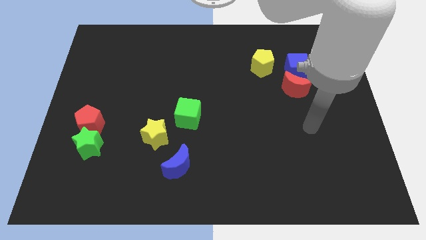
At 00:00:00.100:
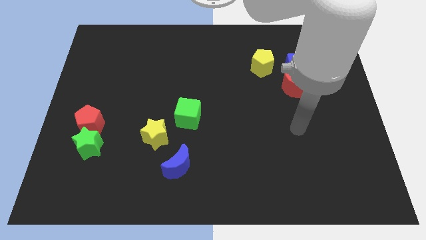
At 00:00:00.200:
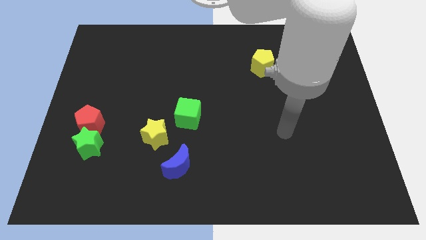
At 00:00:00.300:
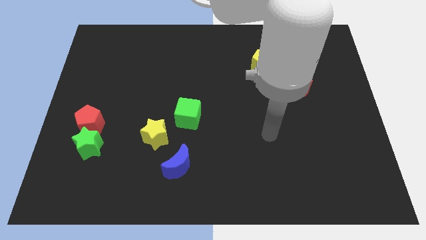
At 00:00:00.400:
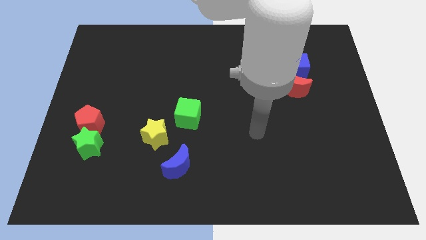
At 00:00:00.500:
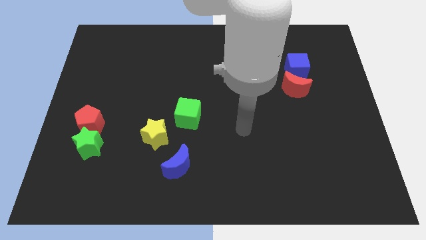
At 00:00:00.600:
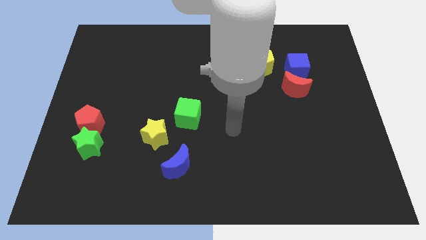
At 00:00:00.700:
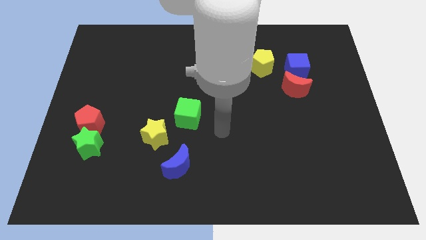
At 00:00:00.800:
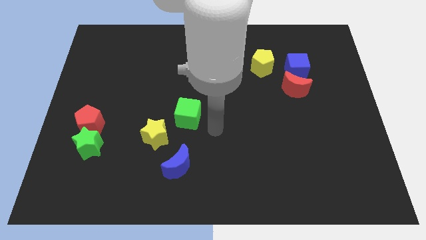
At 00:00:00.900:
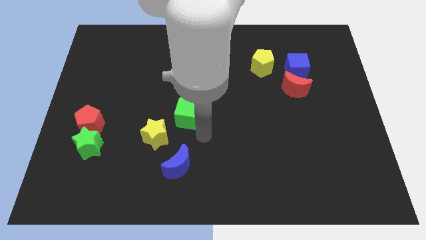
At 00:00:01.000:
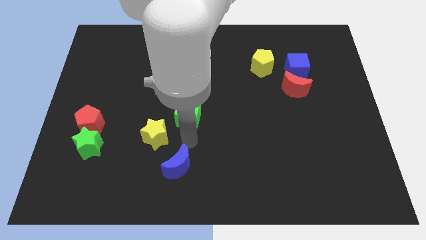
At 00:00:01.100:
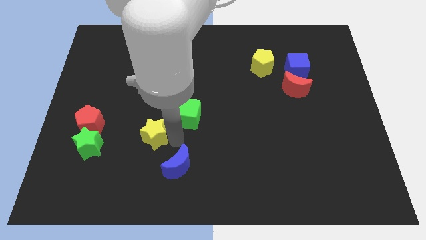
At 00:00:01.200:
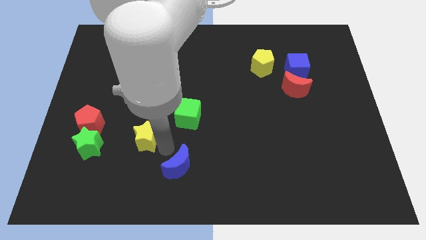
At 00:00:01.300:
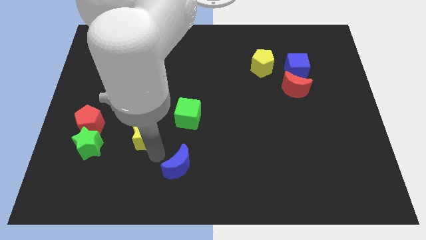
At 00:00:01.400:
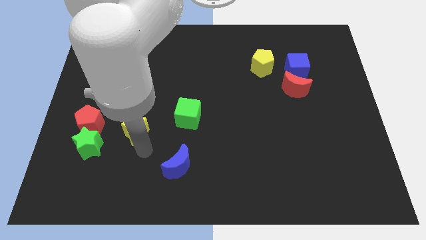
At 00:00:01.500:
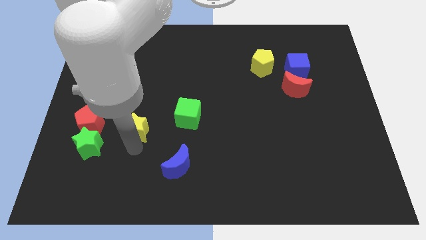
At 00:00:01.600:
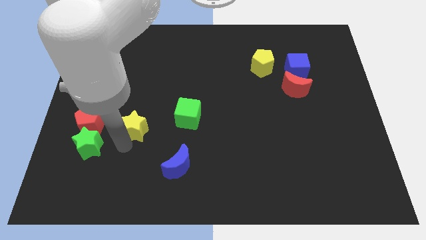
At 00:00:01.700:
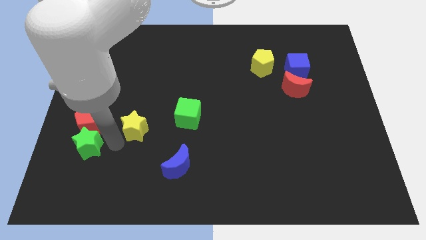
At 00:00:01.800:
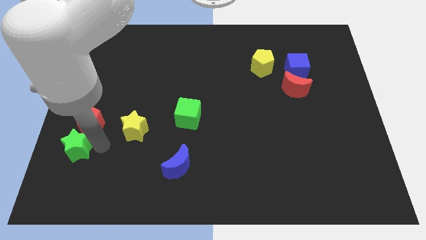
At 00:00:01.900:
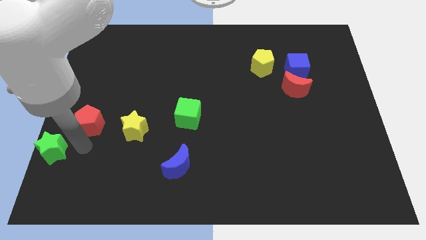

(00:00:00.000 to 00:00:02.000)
separate the red pentagon from the green star

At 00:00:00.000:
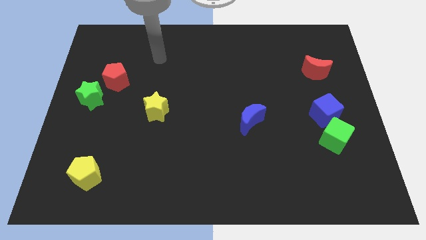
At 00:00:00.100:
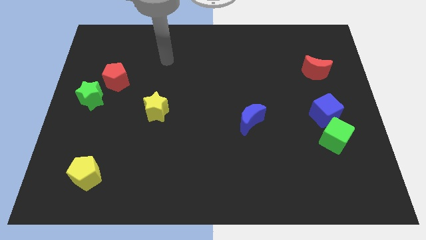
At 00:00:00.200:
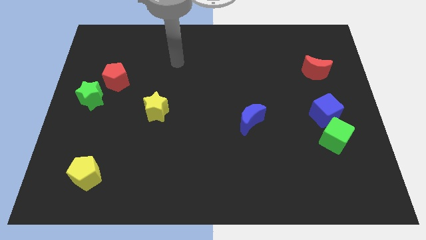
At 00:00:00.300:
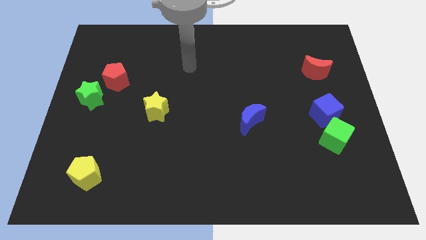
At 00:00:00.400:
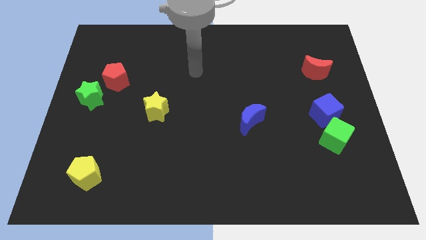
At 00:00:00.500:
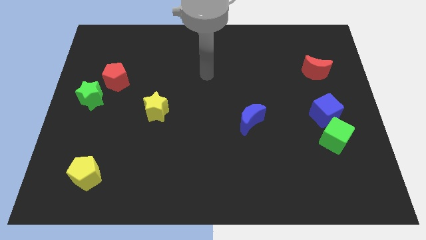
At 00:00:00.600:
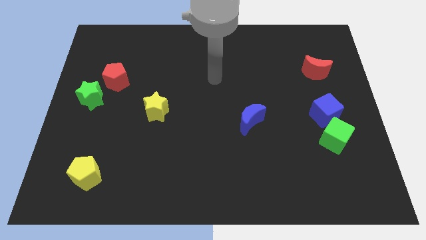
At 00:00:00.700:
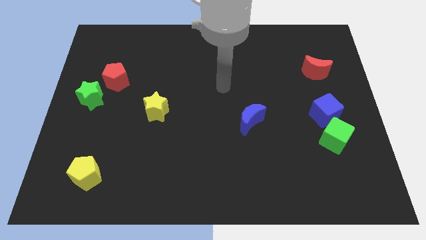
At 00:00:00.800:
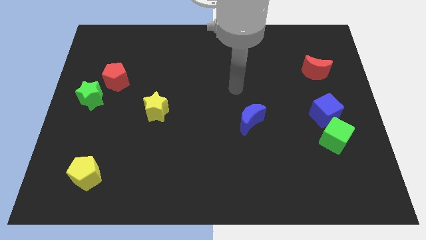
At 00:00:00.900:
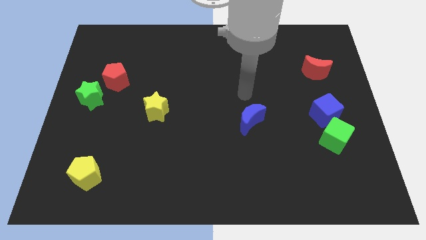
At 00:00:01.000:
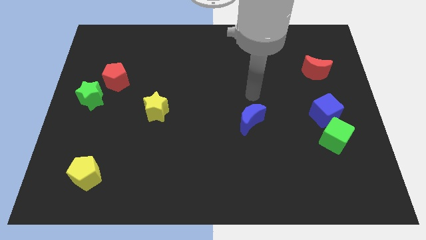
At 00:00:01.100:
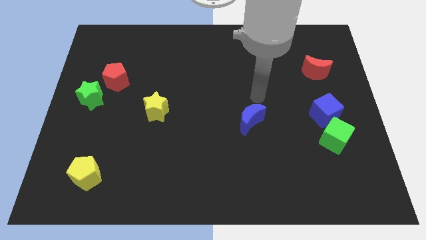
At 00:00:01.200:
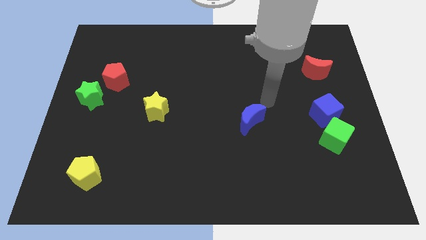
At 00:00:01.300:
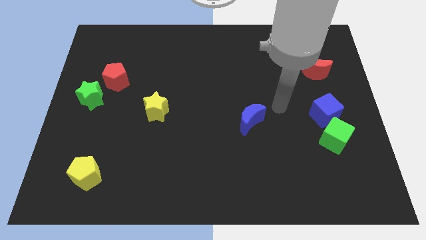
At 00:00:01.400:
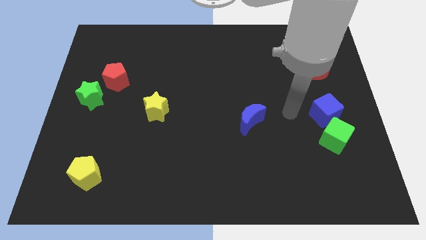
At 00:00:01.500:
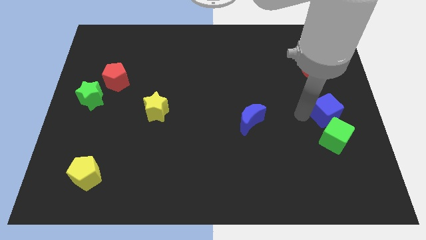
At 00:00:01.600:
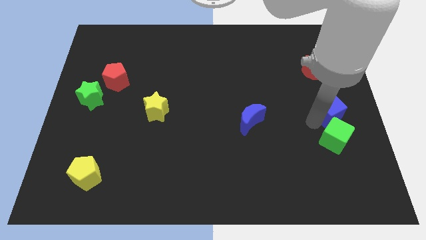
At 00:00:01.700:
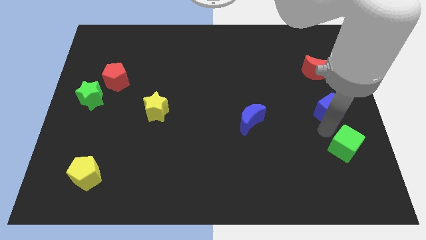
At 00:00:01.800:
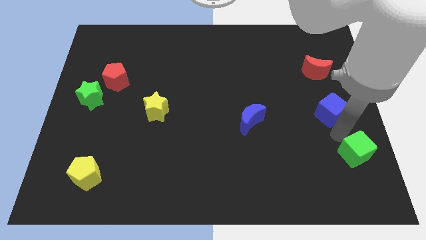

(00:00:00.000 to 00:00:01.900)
pull the blue cube apart from the green cube

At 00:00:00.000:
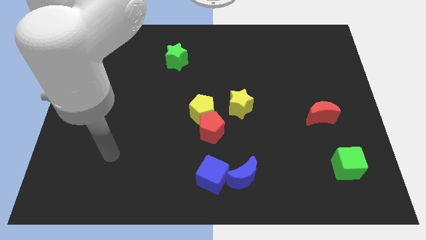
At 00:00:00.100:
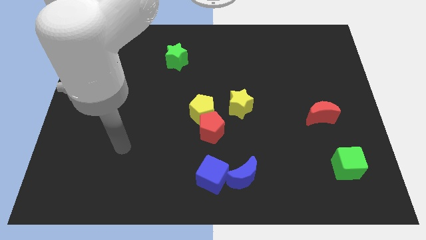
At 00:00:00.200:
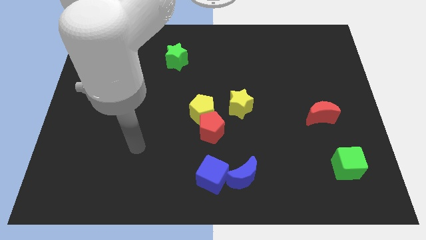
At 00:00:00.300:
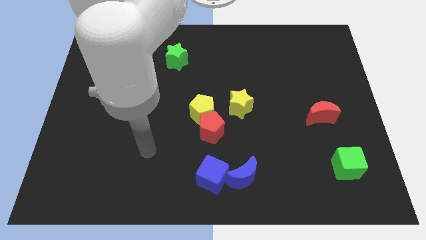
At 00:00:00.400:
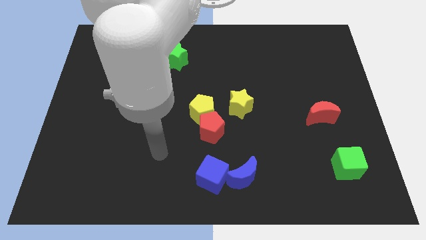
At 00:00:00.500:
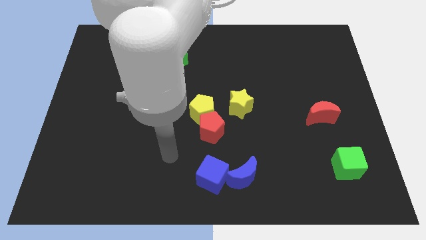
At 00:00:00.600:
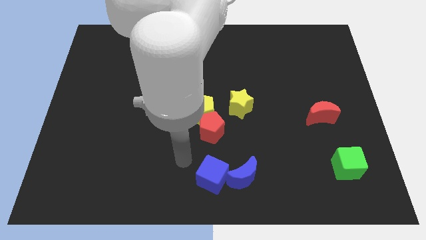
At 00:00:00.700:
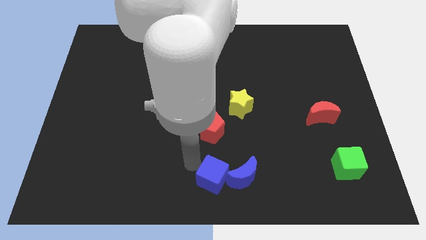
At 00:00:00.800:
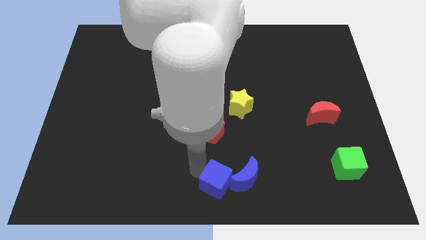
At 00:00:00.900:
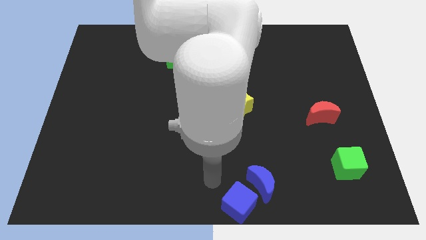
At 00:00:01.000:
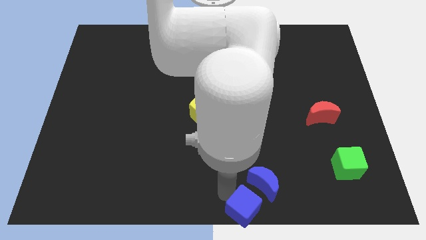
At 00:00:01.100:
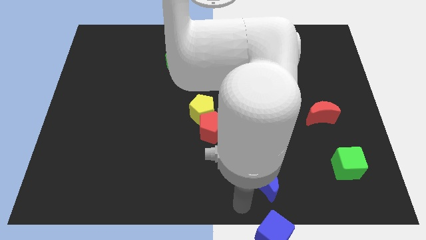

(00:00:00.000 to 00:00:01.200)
separate the blue moon from the blue cube

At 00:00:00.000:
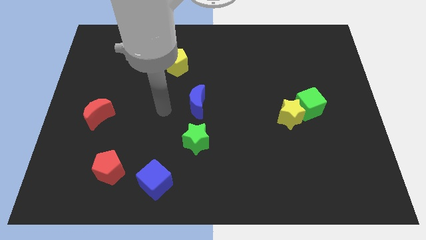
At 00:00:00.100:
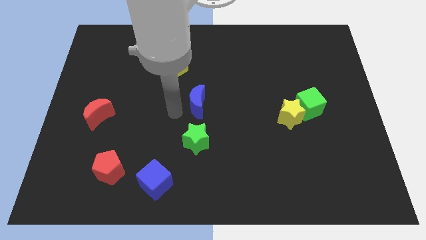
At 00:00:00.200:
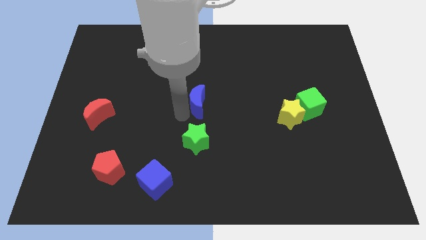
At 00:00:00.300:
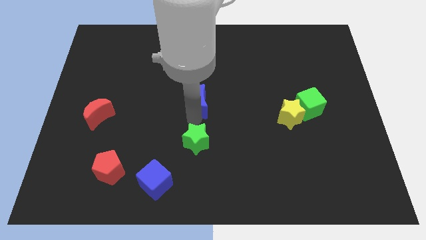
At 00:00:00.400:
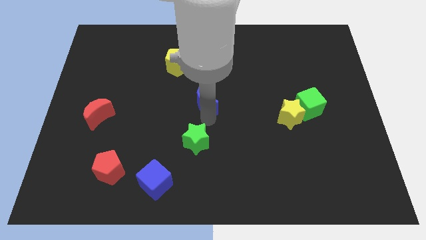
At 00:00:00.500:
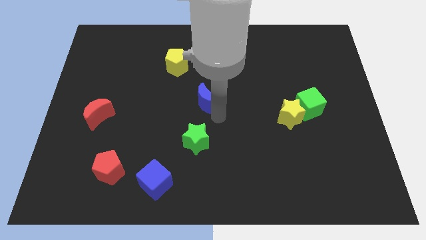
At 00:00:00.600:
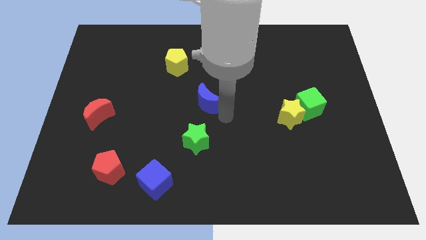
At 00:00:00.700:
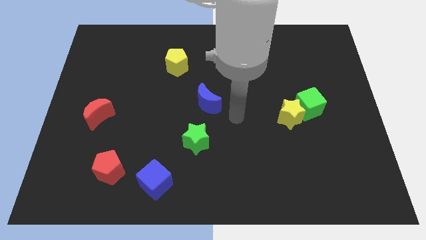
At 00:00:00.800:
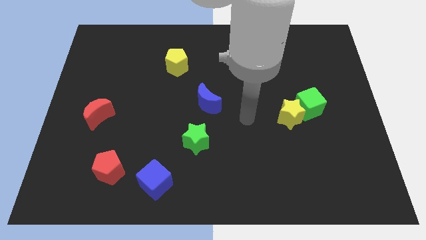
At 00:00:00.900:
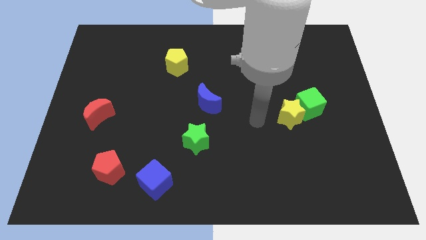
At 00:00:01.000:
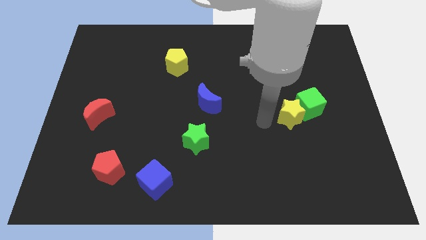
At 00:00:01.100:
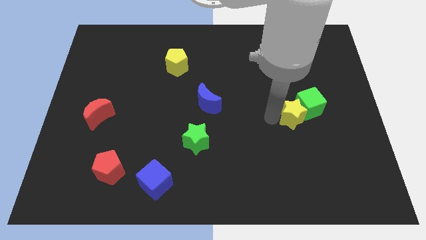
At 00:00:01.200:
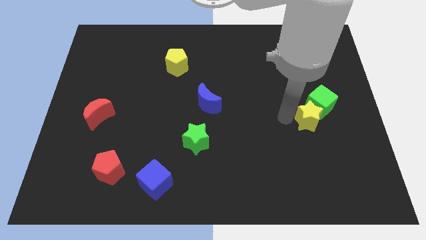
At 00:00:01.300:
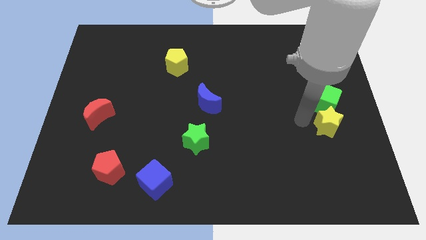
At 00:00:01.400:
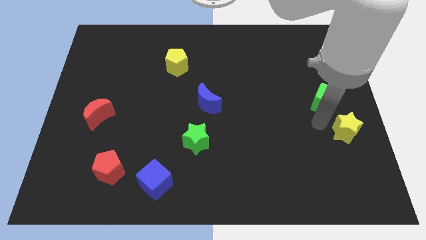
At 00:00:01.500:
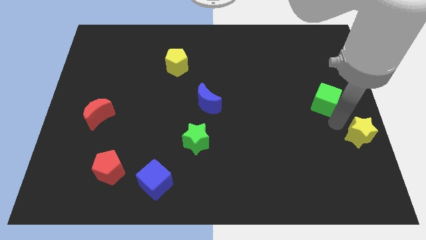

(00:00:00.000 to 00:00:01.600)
move the green cube away from the yellow star

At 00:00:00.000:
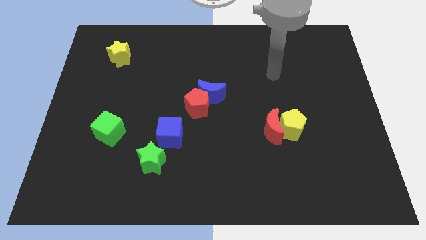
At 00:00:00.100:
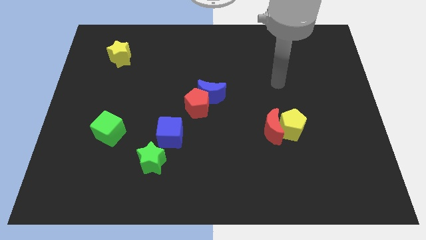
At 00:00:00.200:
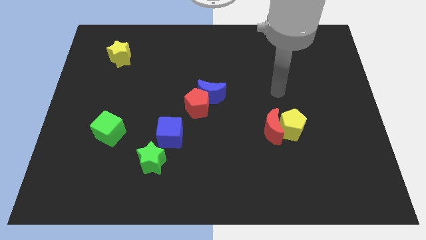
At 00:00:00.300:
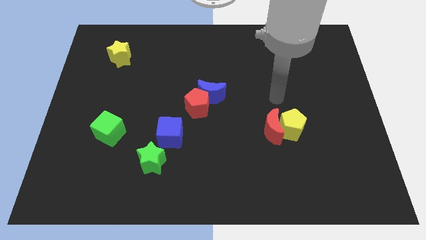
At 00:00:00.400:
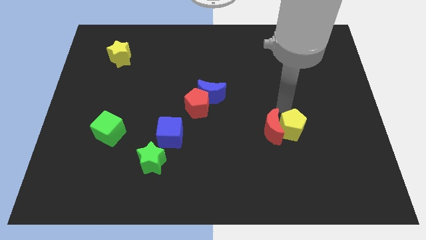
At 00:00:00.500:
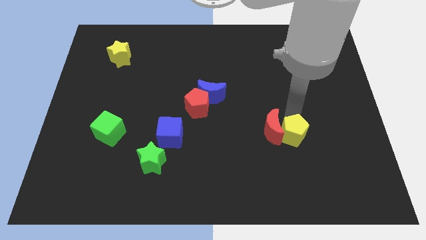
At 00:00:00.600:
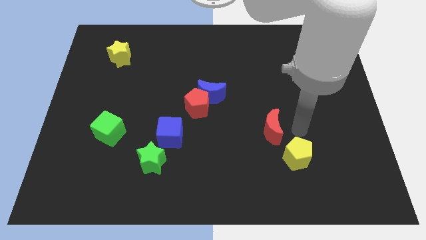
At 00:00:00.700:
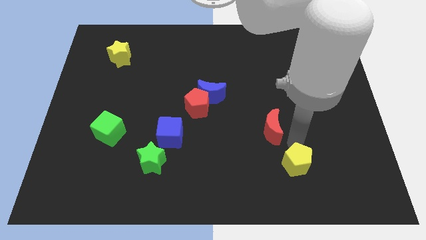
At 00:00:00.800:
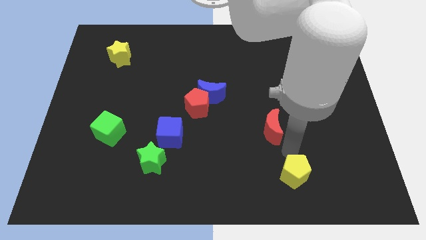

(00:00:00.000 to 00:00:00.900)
move the red moon away from the yellow pentagon

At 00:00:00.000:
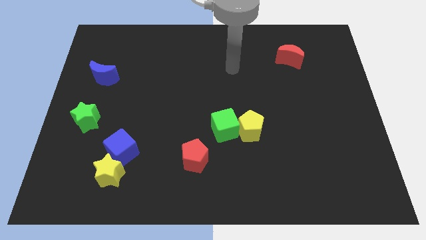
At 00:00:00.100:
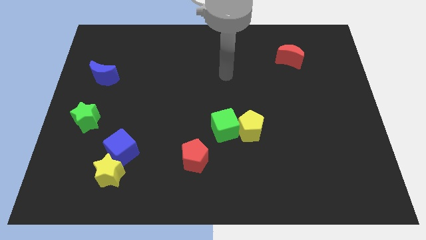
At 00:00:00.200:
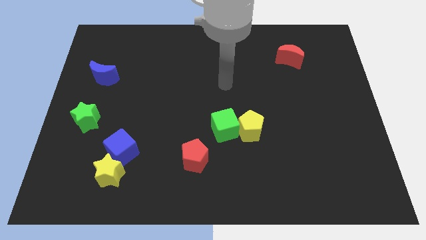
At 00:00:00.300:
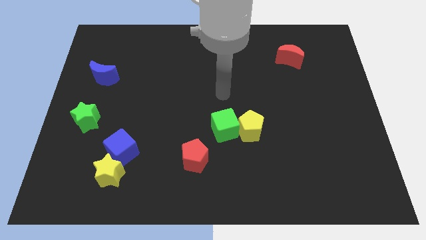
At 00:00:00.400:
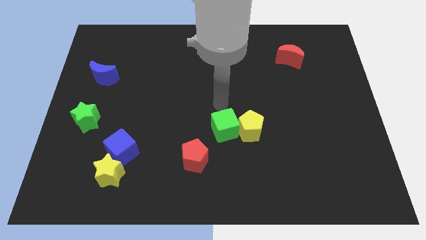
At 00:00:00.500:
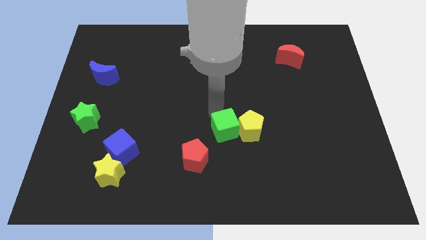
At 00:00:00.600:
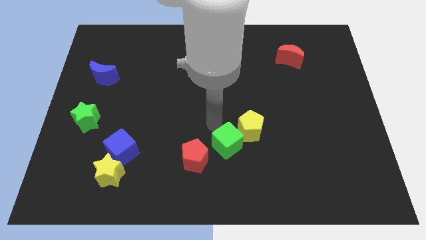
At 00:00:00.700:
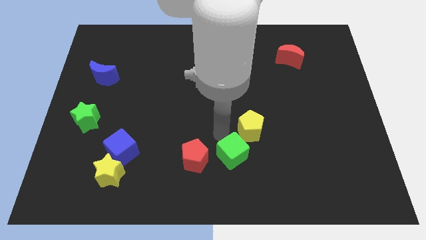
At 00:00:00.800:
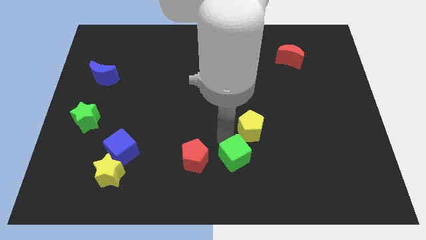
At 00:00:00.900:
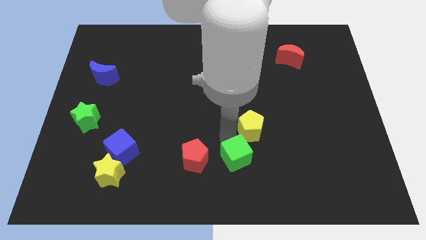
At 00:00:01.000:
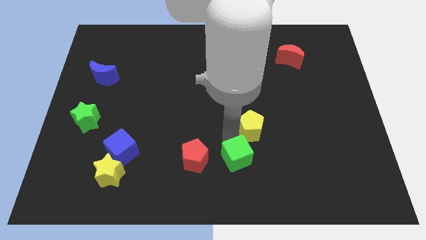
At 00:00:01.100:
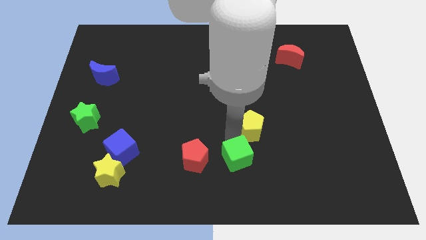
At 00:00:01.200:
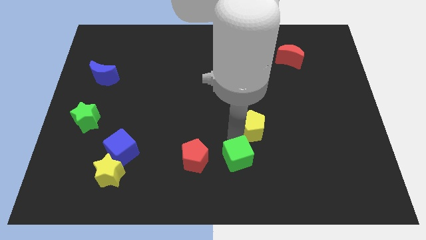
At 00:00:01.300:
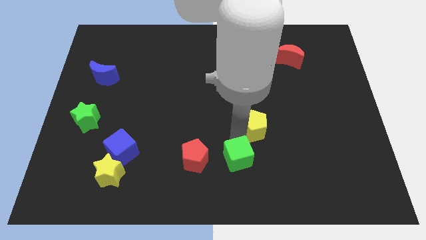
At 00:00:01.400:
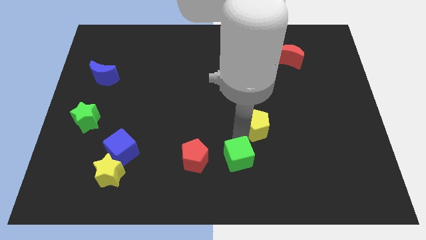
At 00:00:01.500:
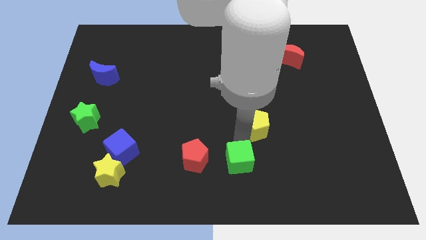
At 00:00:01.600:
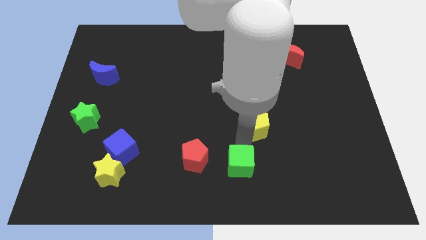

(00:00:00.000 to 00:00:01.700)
move the yellow pentagon away from the green cube
